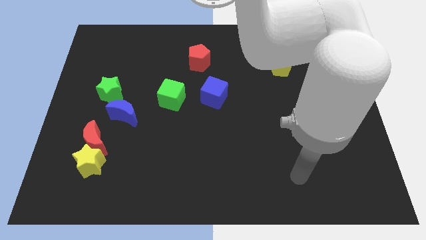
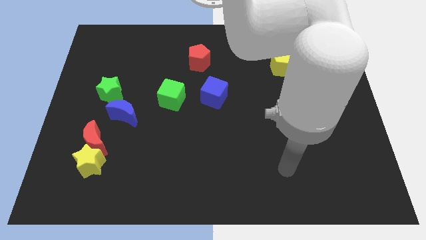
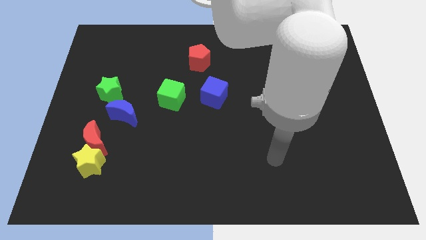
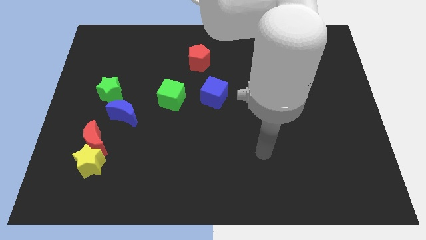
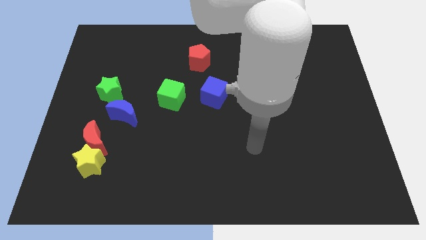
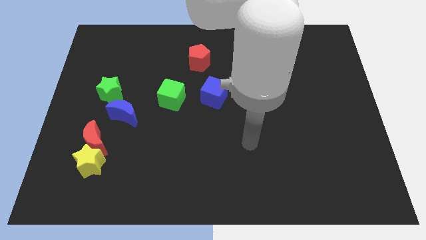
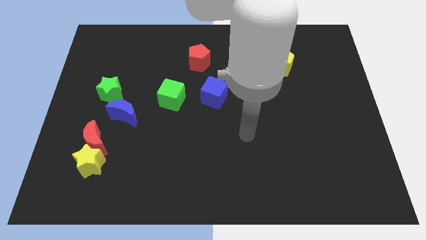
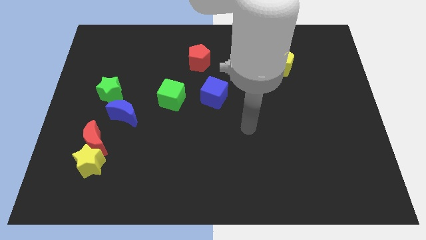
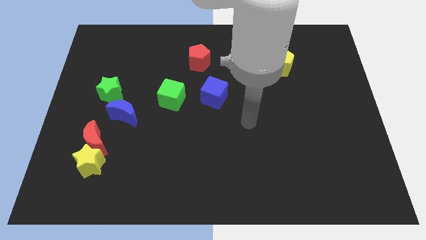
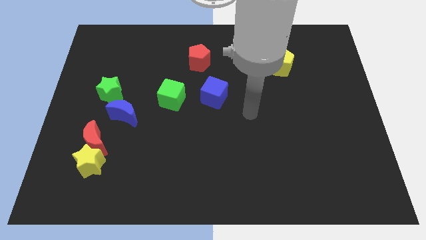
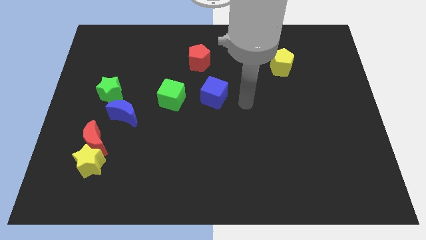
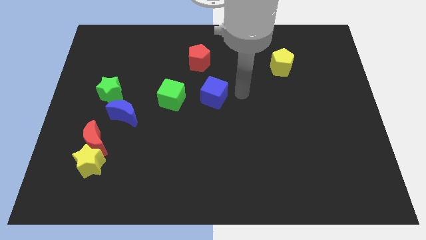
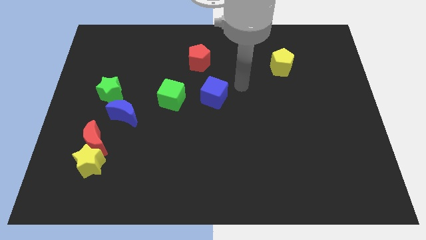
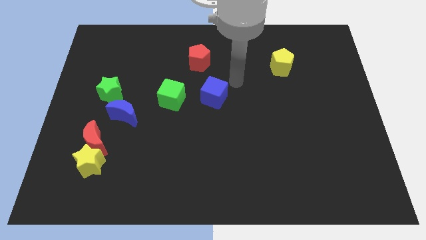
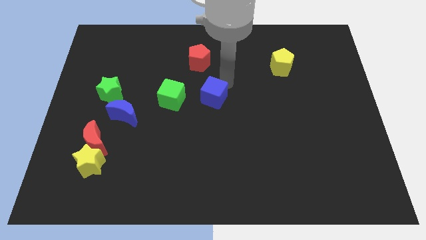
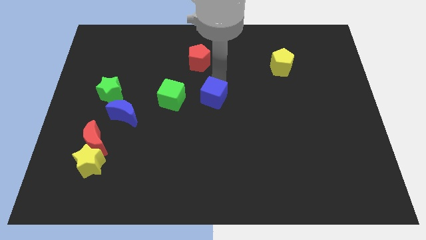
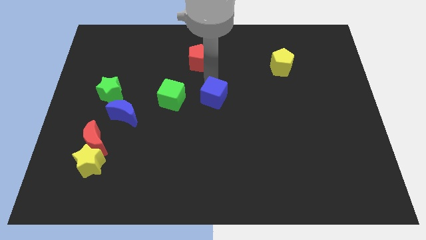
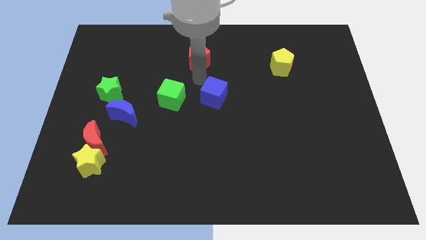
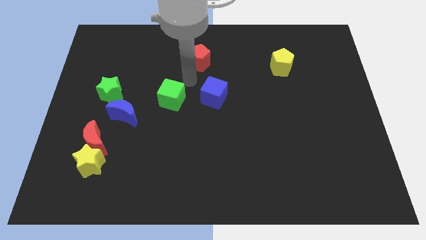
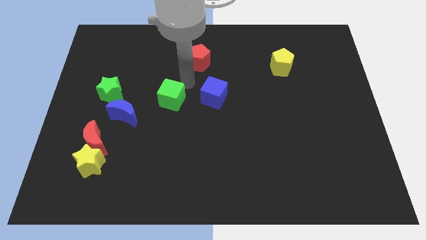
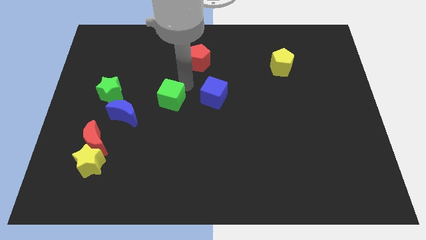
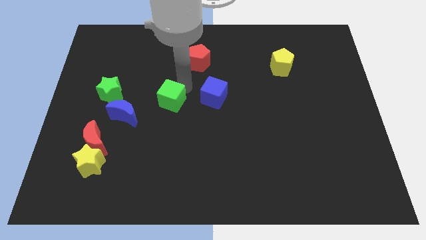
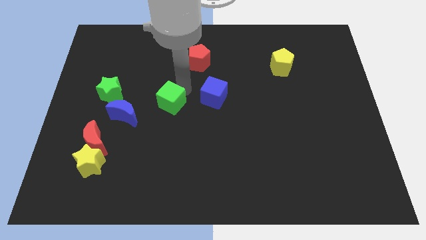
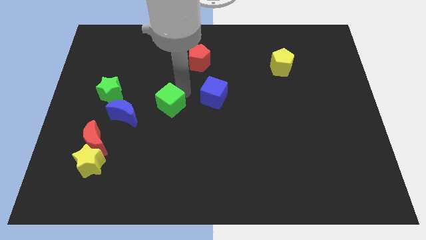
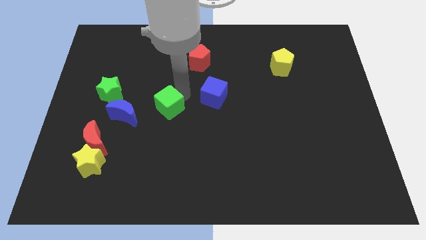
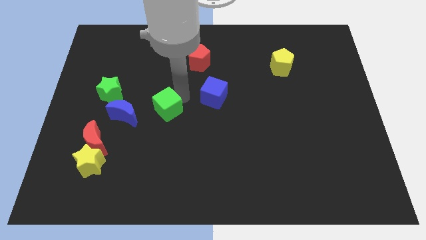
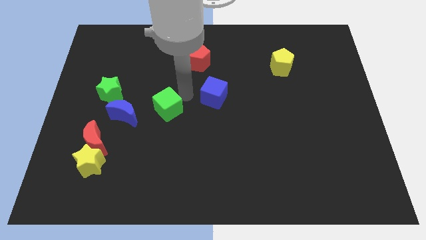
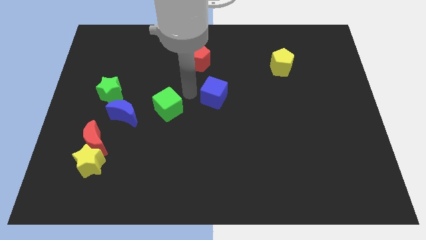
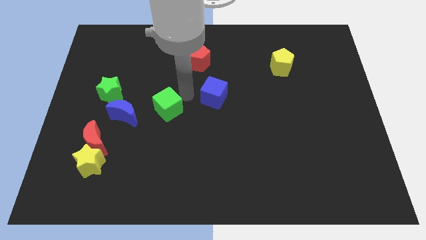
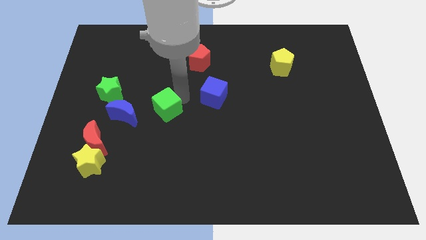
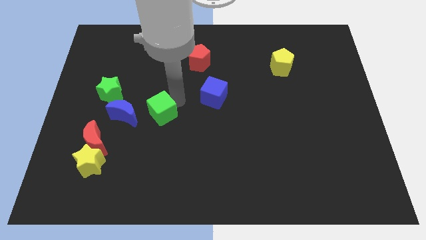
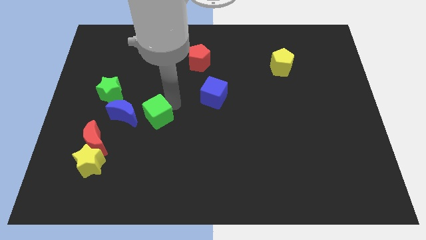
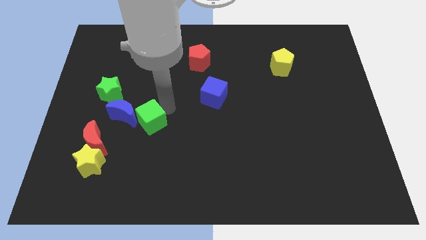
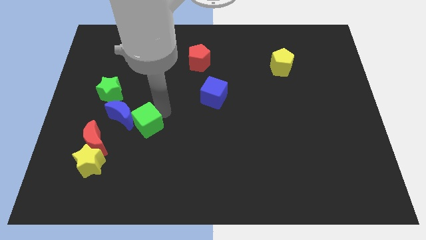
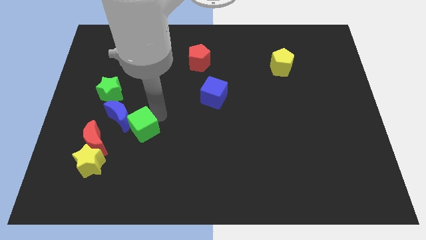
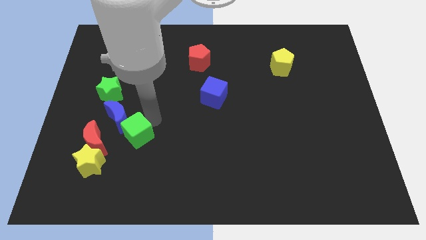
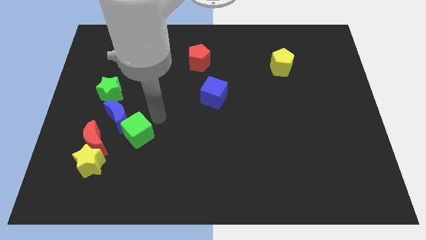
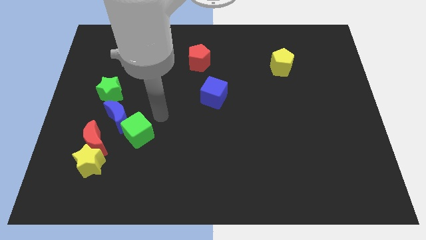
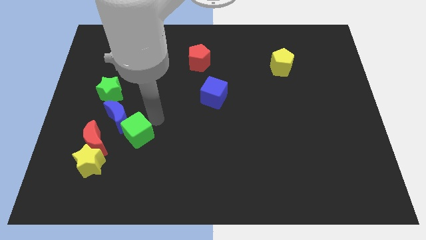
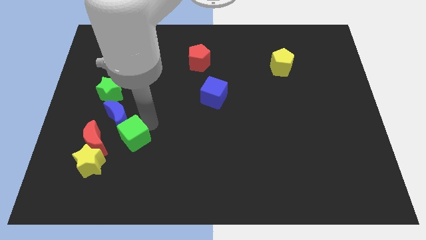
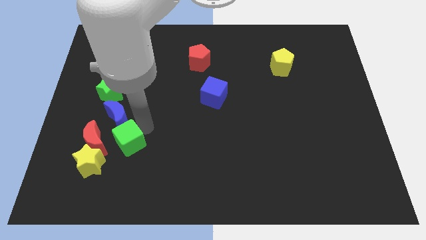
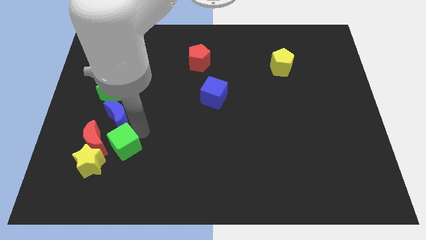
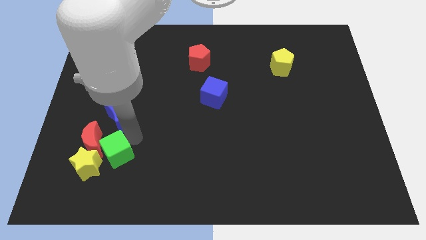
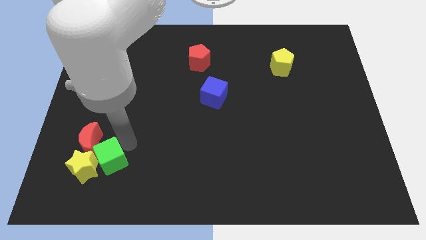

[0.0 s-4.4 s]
slide the green cube to the yellow star

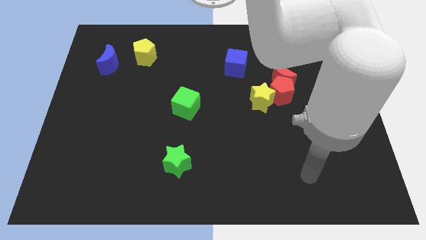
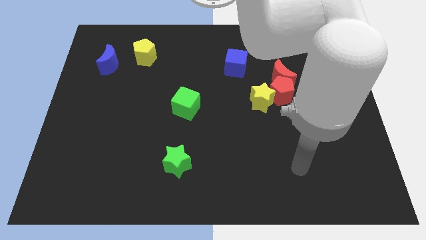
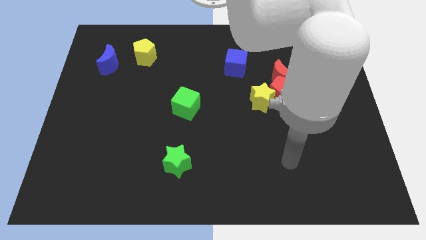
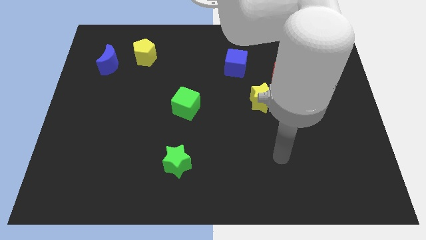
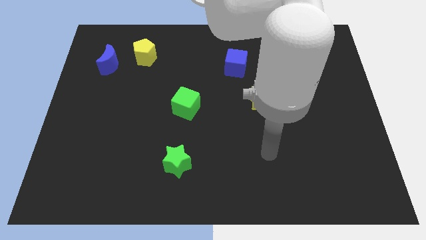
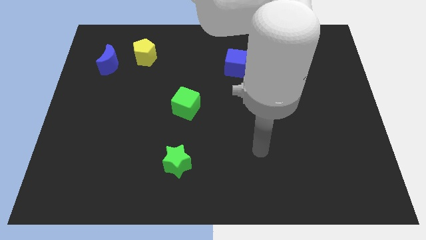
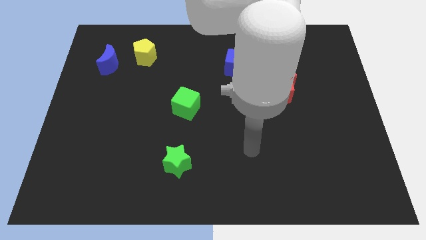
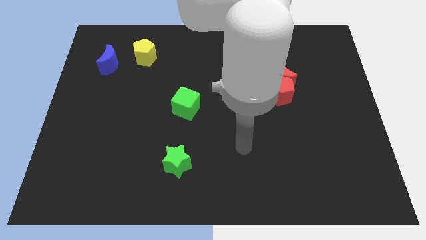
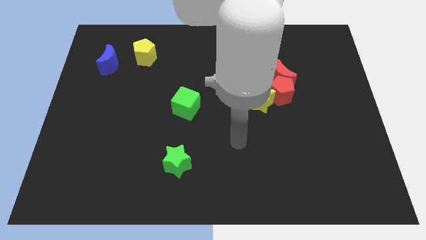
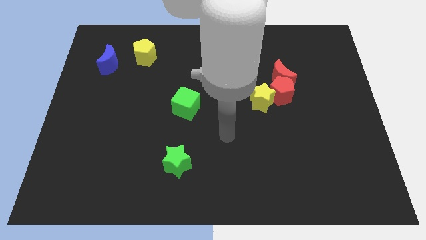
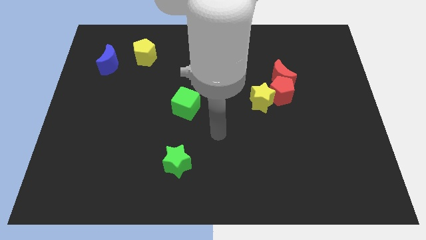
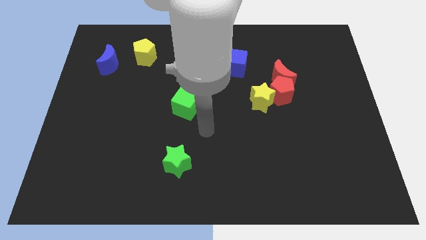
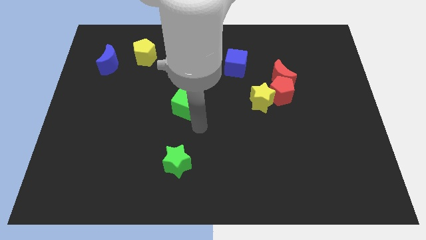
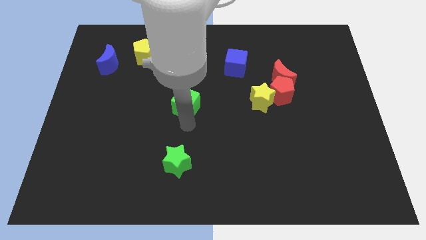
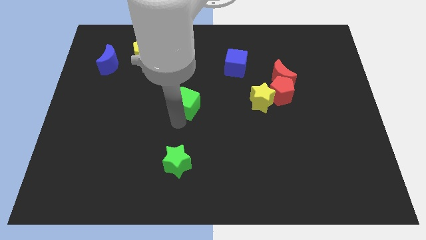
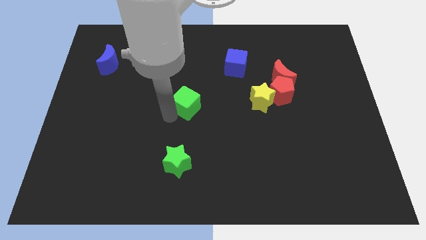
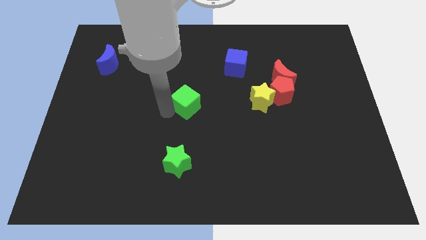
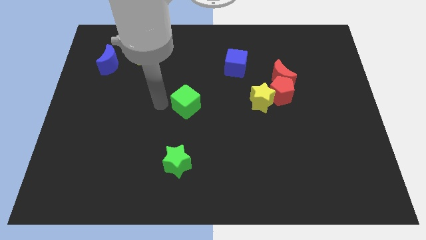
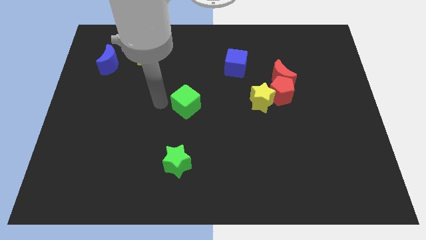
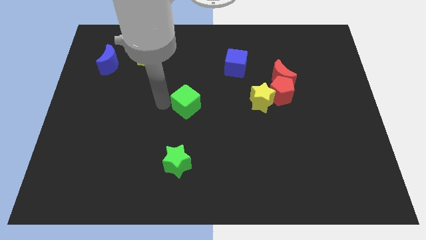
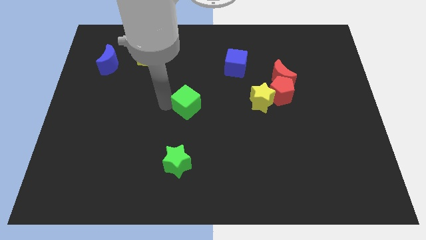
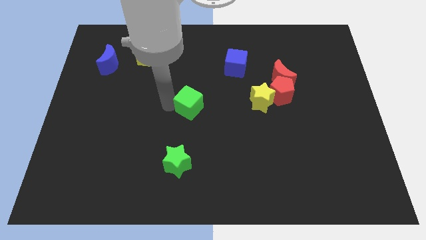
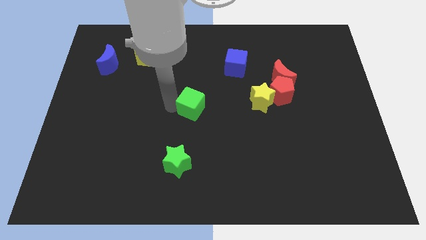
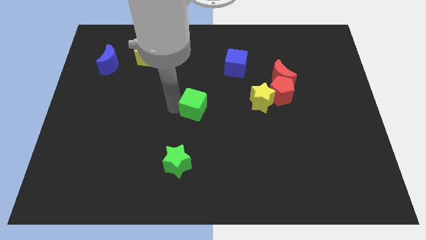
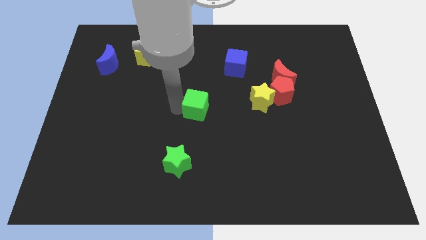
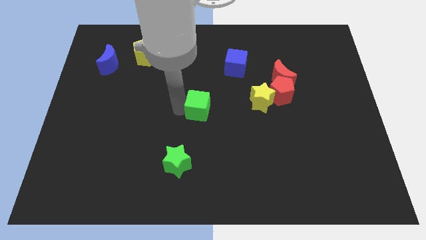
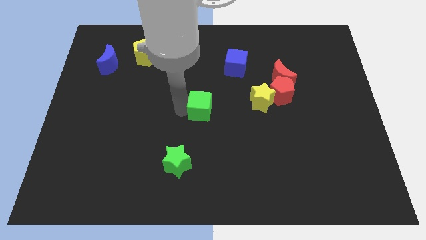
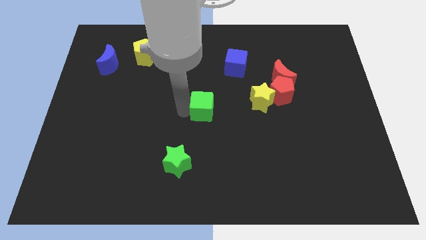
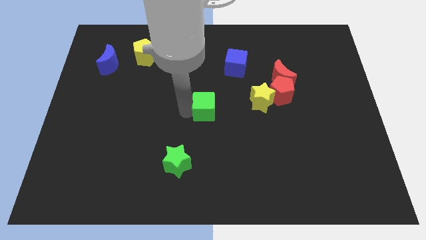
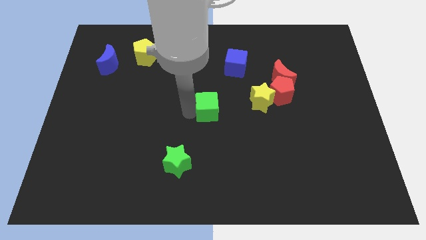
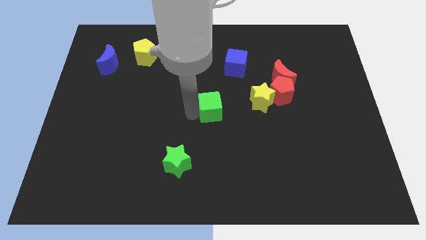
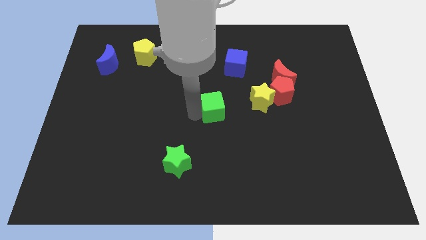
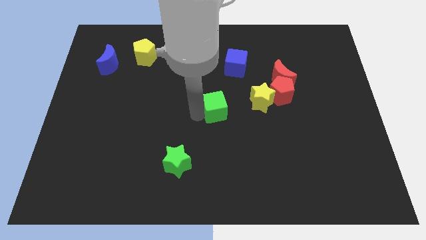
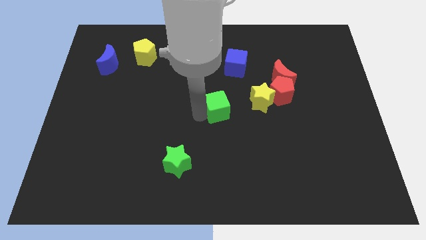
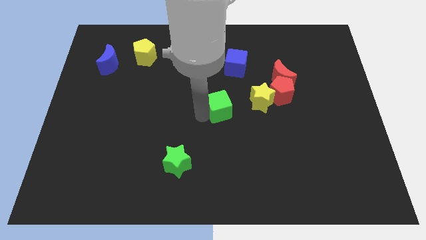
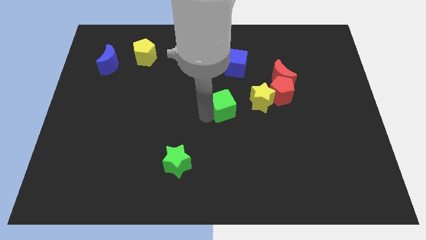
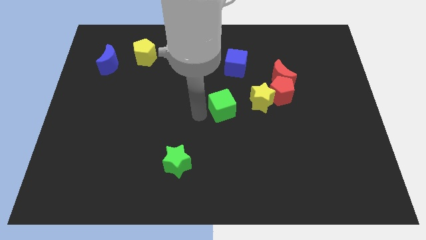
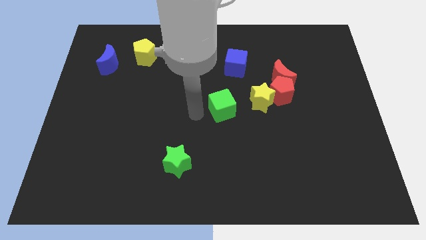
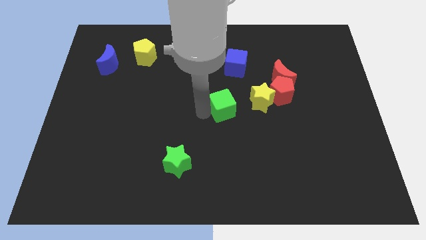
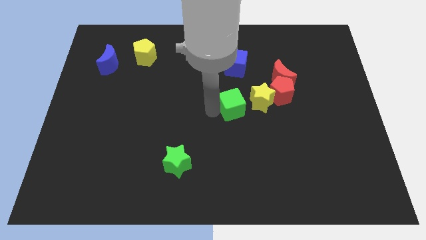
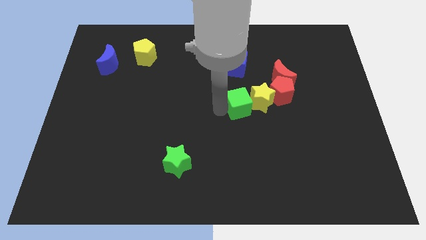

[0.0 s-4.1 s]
push the green cube to the yellow star
